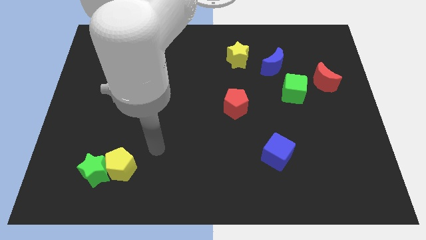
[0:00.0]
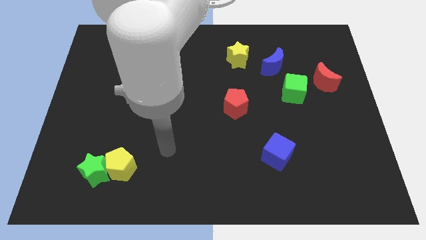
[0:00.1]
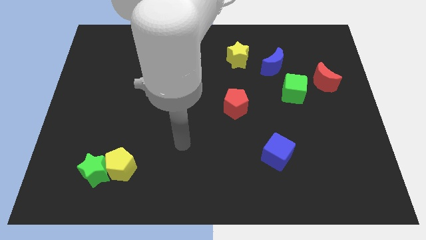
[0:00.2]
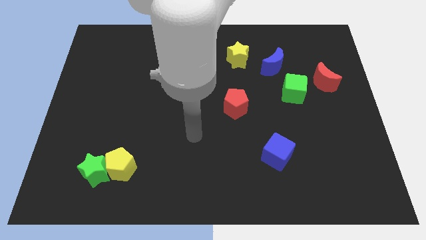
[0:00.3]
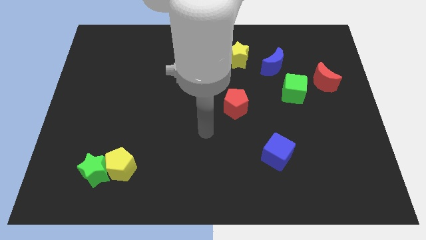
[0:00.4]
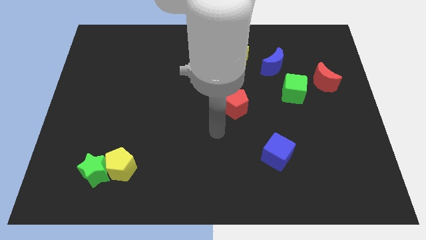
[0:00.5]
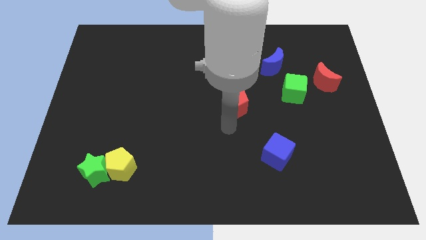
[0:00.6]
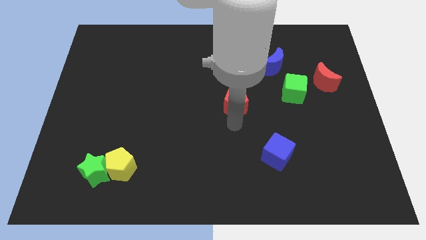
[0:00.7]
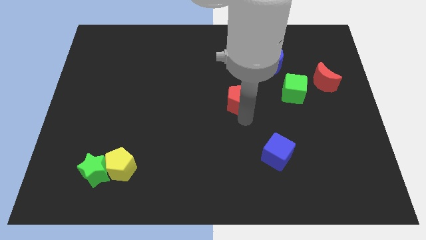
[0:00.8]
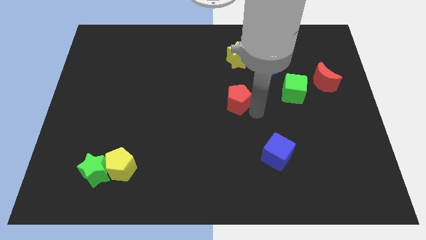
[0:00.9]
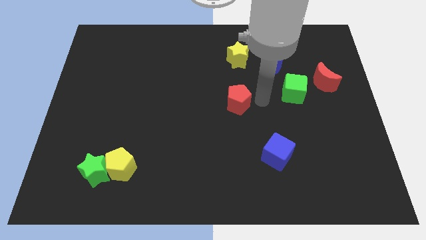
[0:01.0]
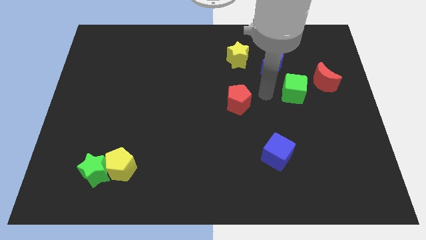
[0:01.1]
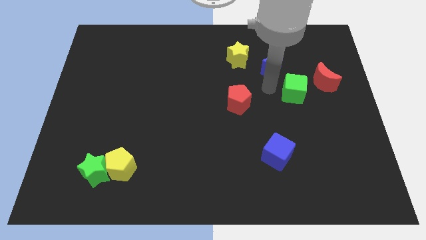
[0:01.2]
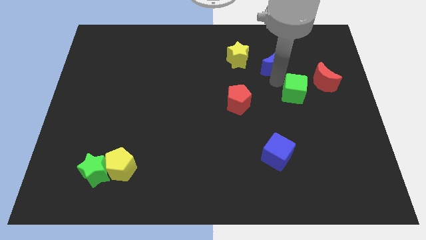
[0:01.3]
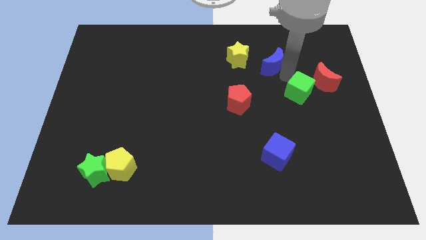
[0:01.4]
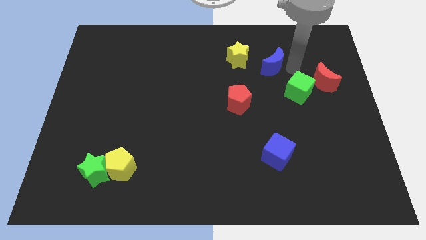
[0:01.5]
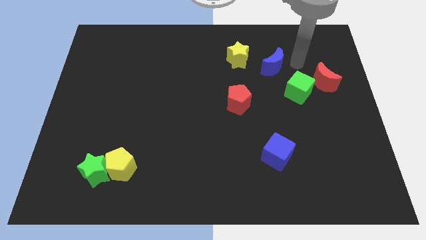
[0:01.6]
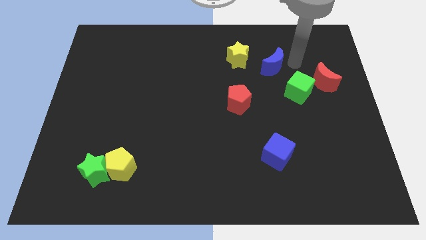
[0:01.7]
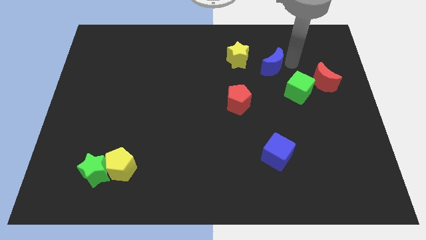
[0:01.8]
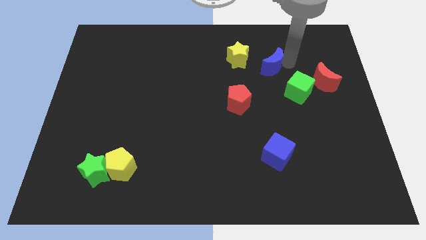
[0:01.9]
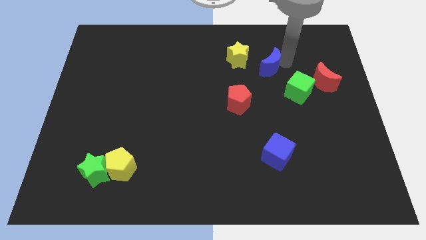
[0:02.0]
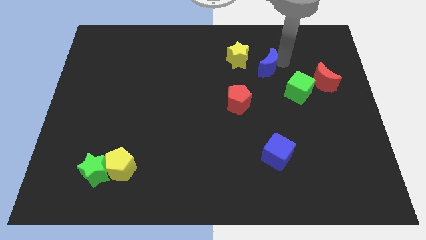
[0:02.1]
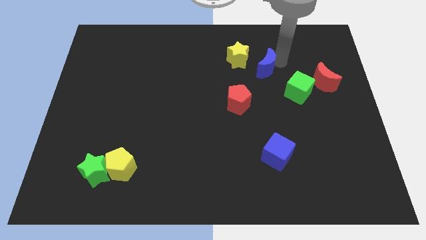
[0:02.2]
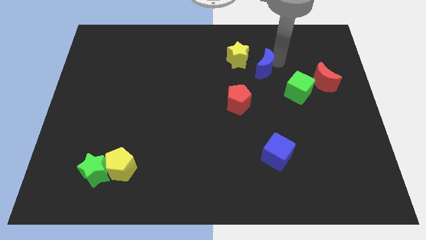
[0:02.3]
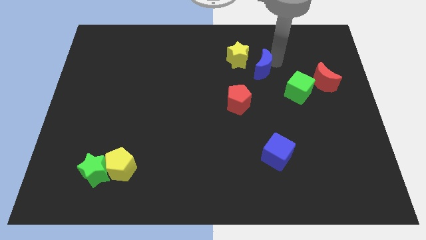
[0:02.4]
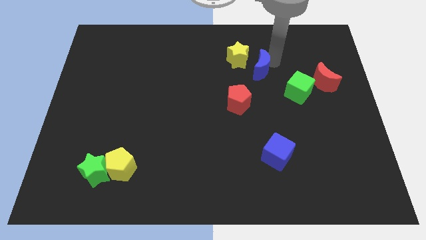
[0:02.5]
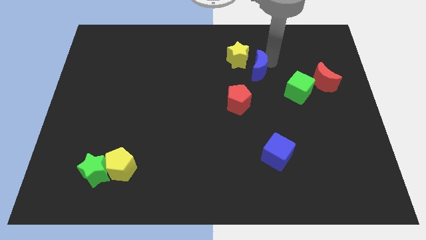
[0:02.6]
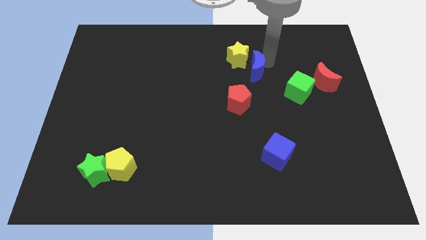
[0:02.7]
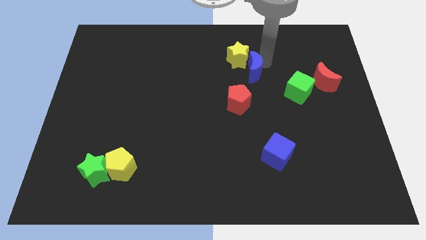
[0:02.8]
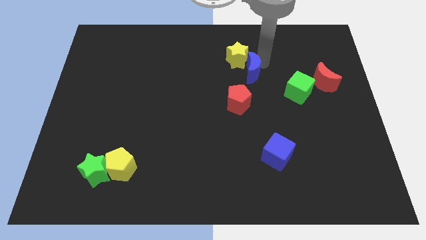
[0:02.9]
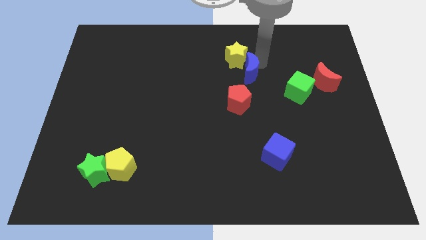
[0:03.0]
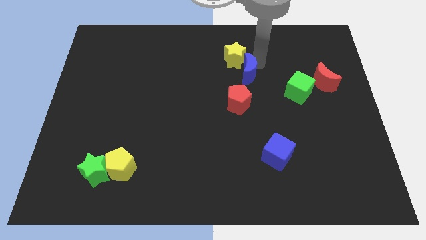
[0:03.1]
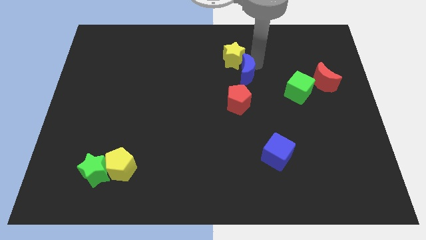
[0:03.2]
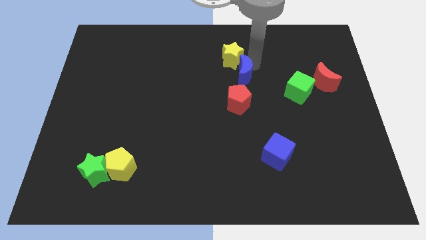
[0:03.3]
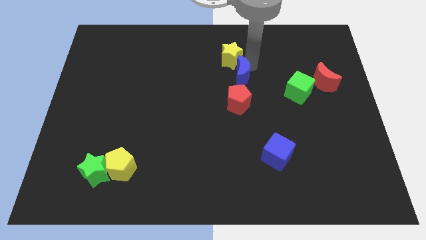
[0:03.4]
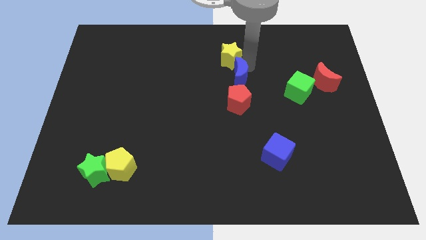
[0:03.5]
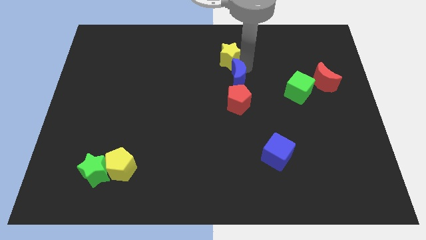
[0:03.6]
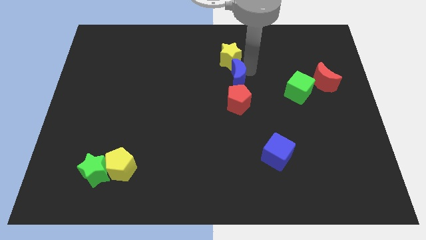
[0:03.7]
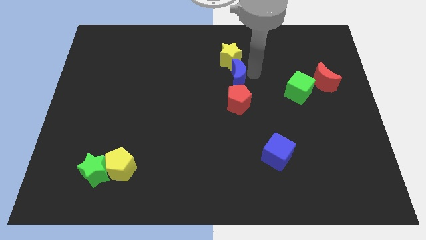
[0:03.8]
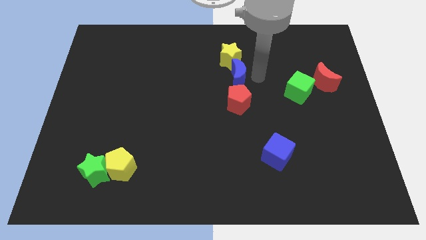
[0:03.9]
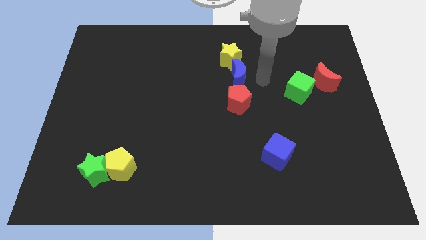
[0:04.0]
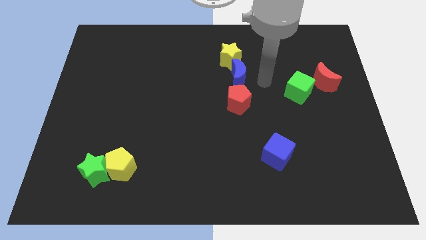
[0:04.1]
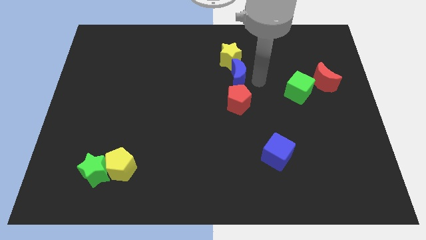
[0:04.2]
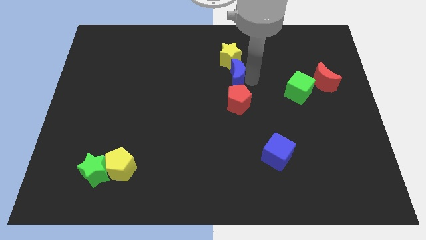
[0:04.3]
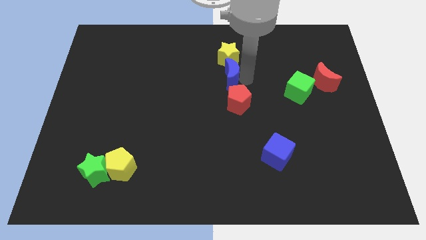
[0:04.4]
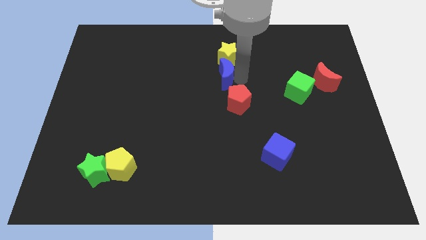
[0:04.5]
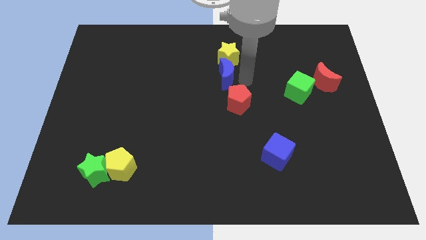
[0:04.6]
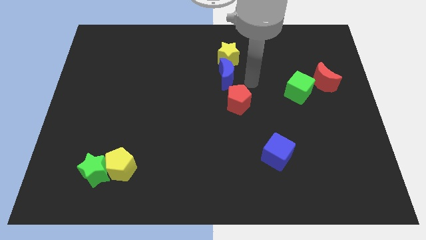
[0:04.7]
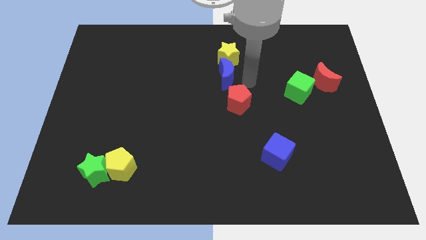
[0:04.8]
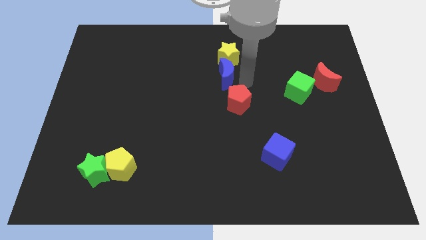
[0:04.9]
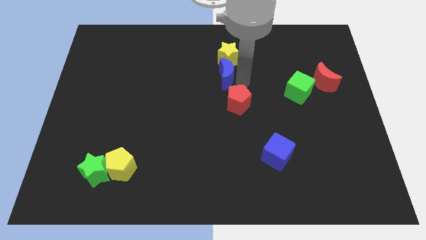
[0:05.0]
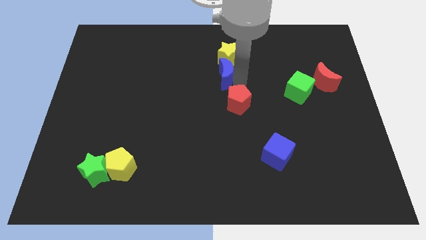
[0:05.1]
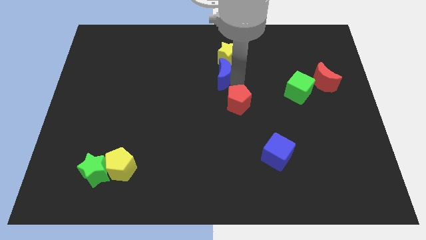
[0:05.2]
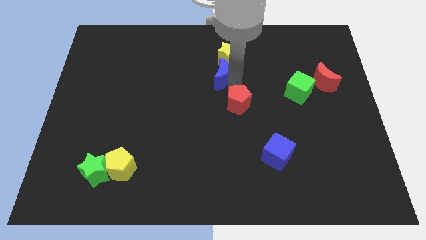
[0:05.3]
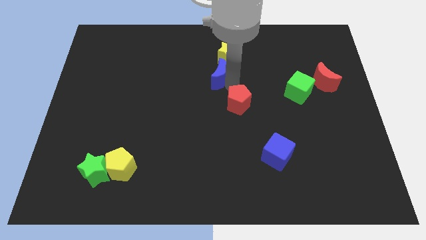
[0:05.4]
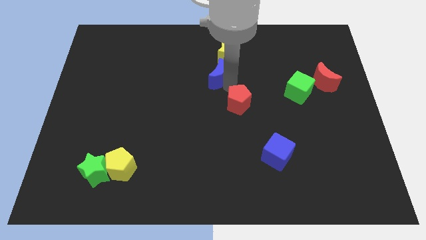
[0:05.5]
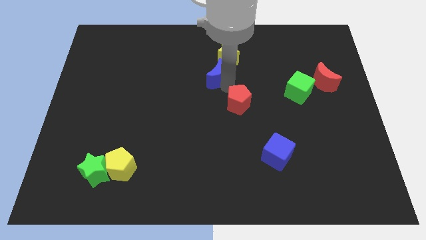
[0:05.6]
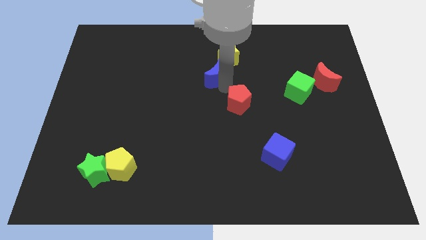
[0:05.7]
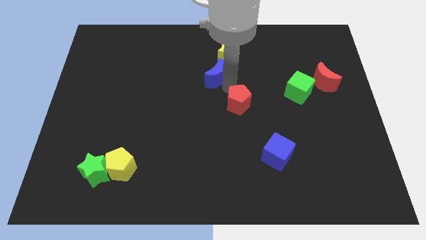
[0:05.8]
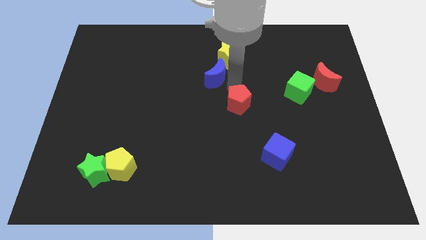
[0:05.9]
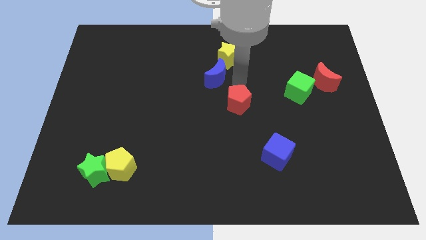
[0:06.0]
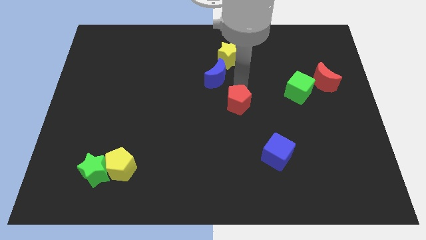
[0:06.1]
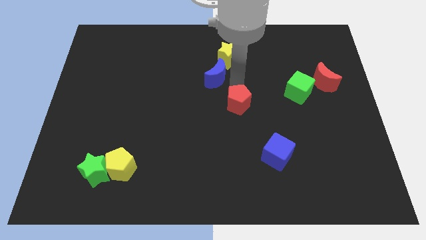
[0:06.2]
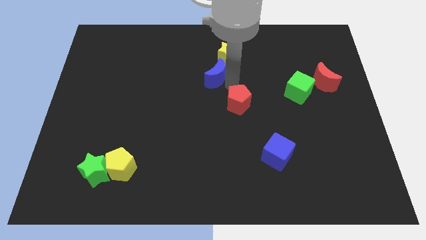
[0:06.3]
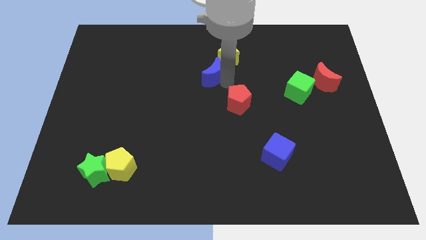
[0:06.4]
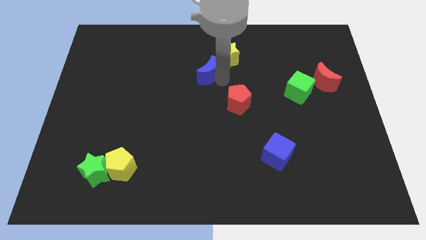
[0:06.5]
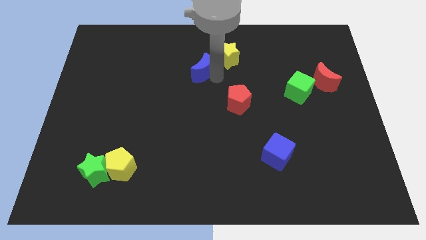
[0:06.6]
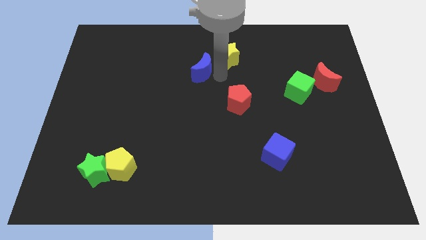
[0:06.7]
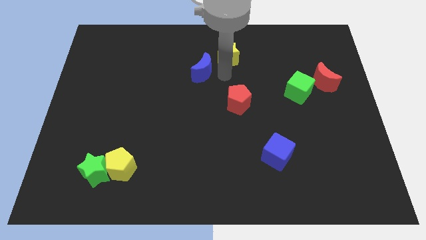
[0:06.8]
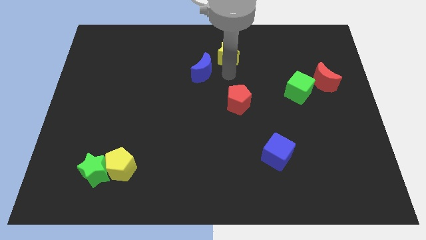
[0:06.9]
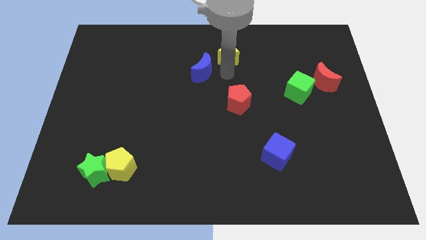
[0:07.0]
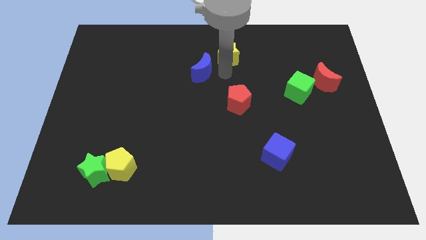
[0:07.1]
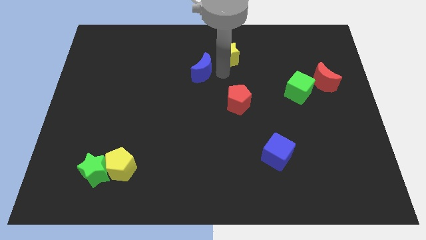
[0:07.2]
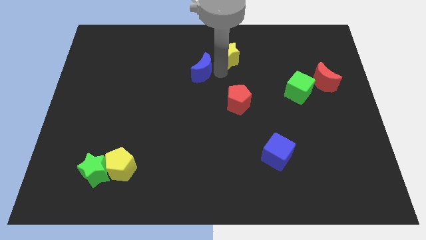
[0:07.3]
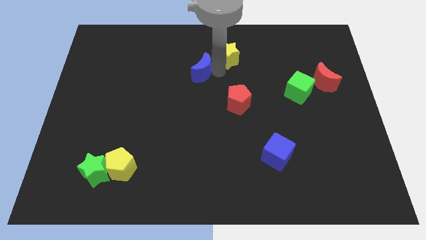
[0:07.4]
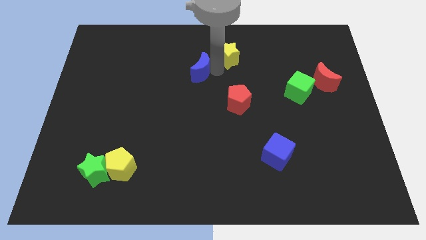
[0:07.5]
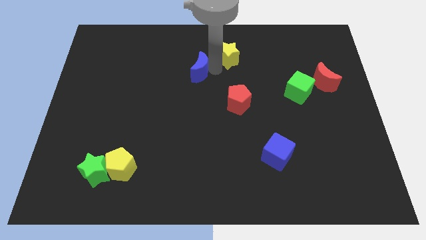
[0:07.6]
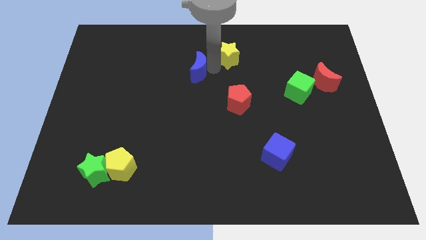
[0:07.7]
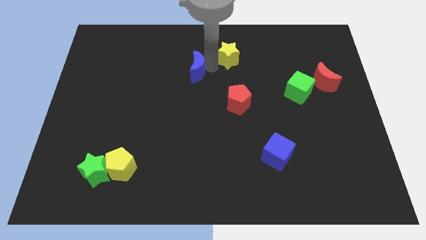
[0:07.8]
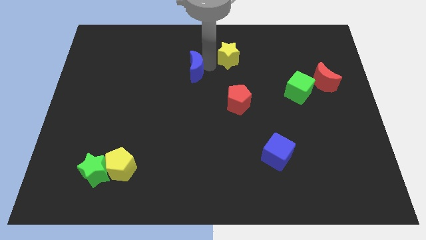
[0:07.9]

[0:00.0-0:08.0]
slide the blue moon to the left

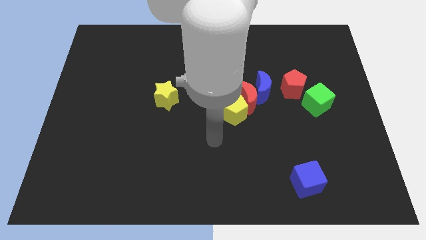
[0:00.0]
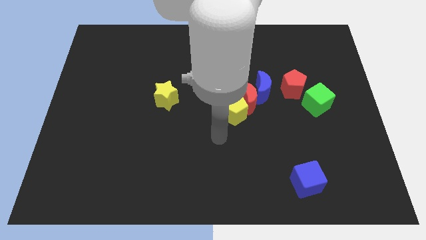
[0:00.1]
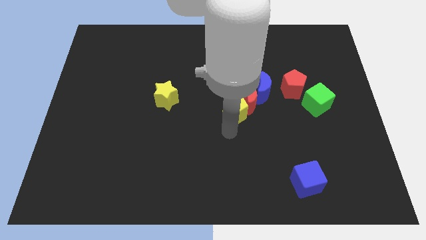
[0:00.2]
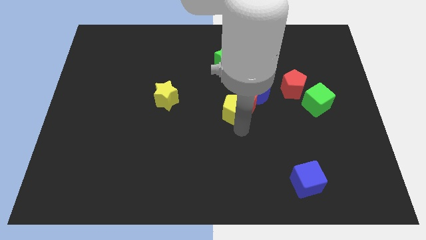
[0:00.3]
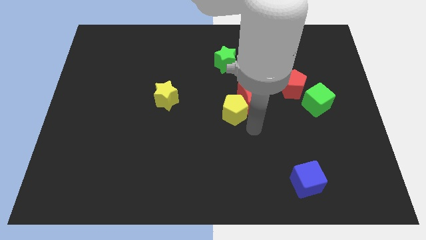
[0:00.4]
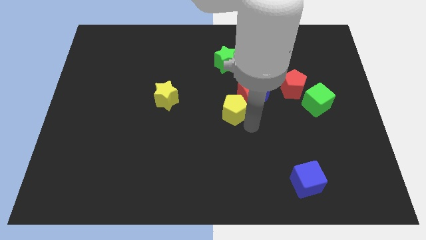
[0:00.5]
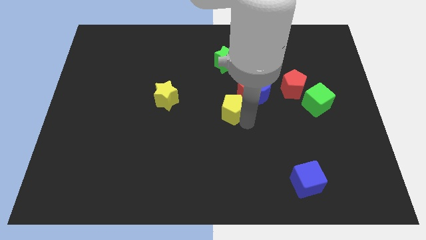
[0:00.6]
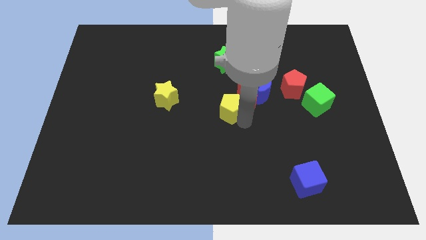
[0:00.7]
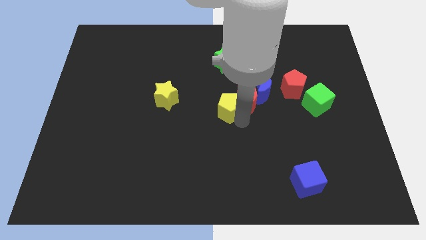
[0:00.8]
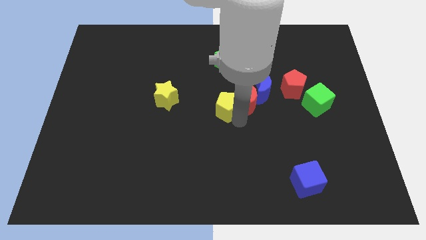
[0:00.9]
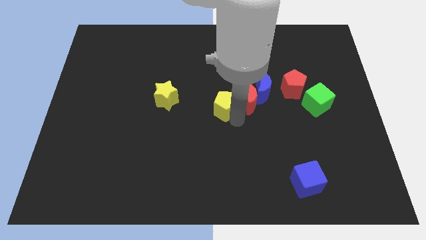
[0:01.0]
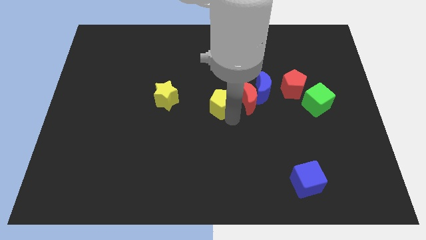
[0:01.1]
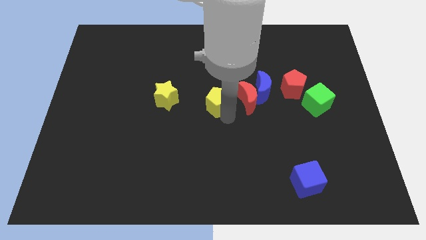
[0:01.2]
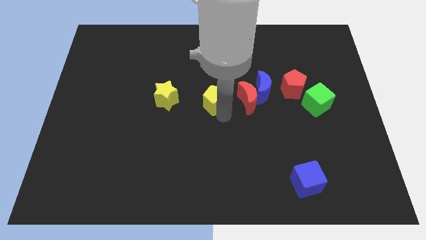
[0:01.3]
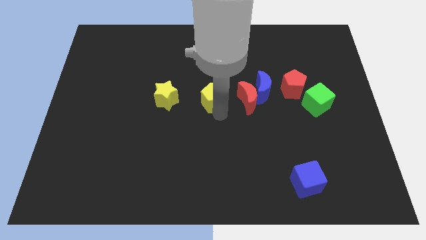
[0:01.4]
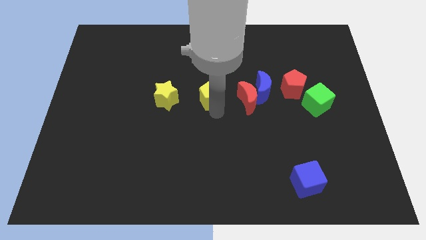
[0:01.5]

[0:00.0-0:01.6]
push the yellow pentagon a bit up and then to the left
